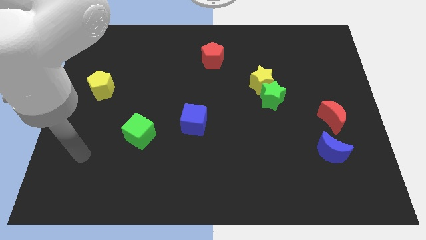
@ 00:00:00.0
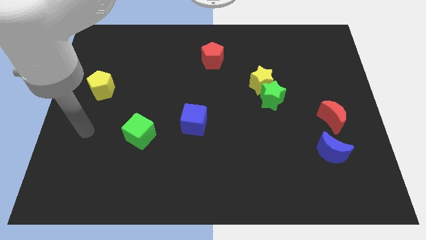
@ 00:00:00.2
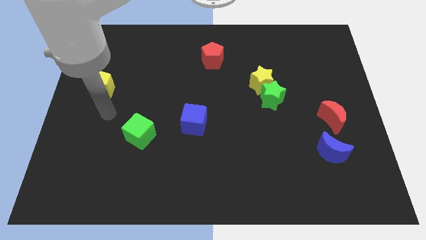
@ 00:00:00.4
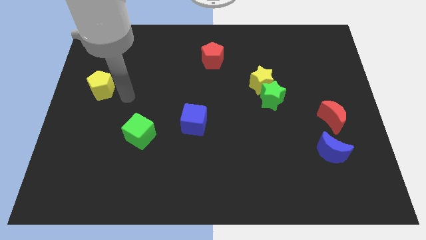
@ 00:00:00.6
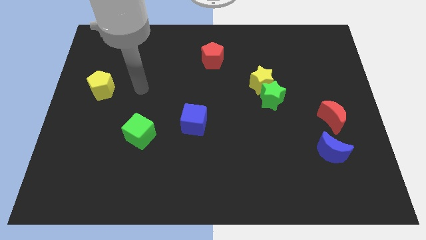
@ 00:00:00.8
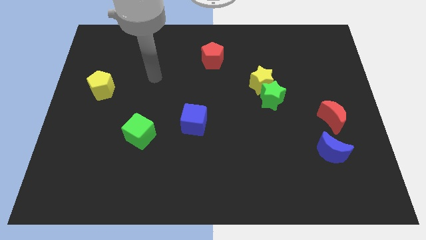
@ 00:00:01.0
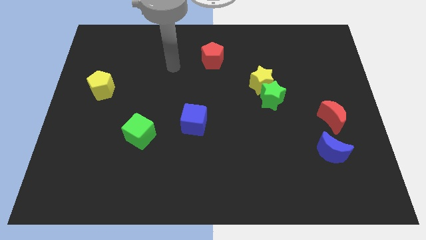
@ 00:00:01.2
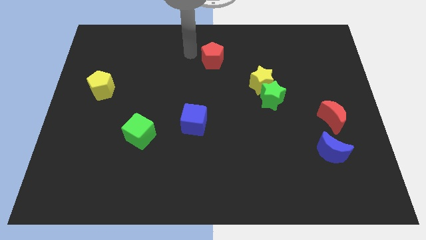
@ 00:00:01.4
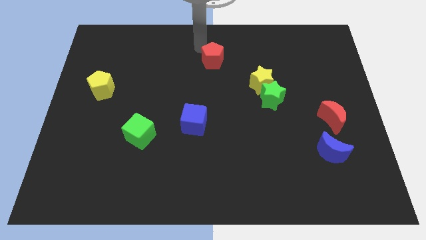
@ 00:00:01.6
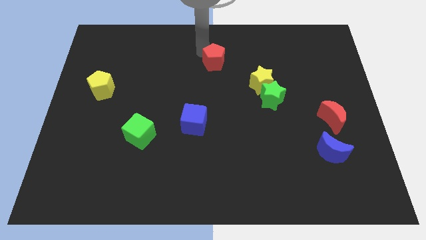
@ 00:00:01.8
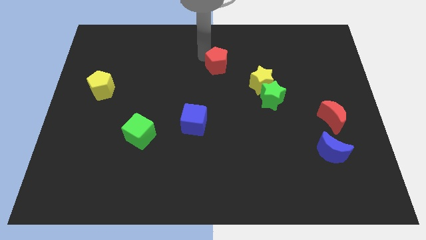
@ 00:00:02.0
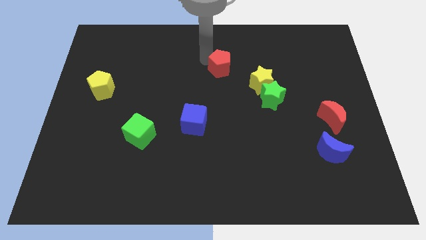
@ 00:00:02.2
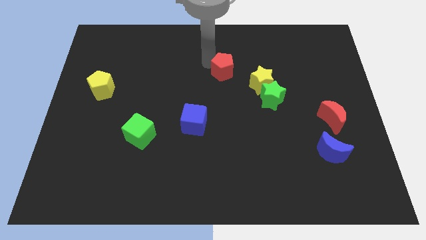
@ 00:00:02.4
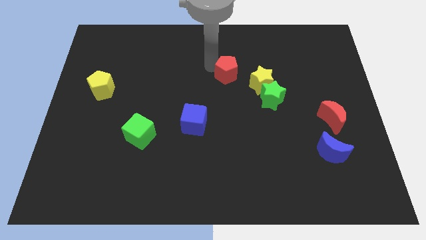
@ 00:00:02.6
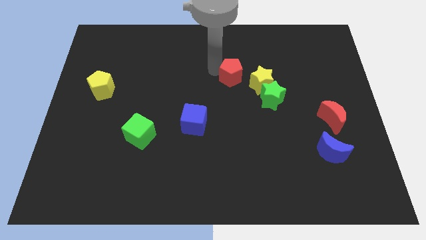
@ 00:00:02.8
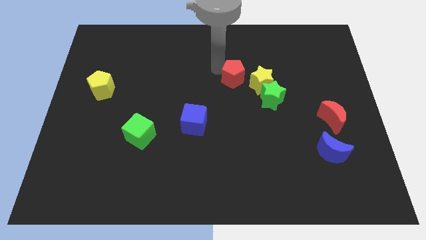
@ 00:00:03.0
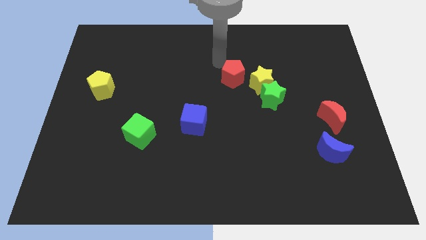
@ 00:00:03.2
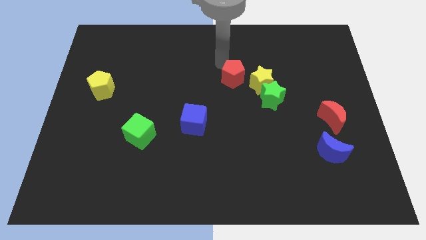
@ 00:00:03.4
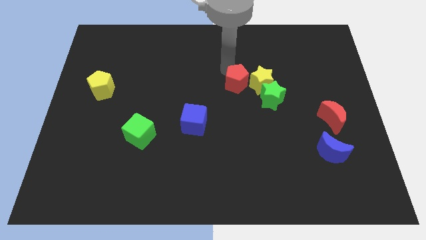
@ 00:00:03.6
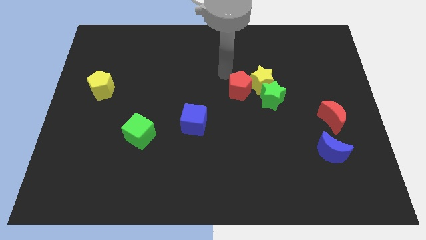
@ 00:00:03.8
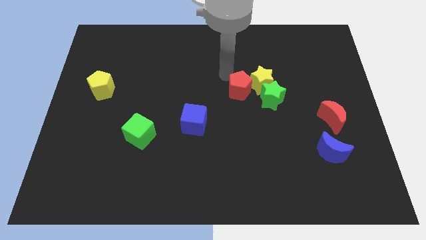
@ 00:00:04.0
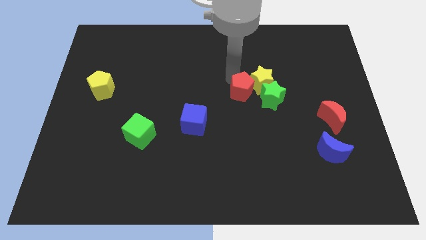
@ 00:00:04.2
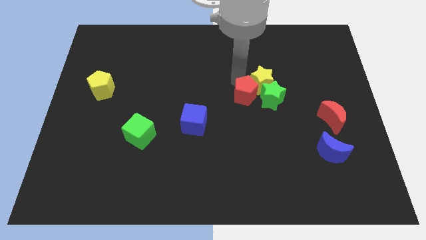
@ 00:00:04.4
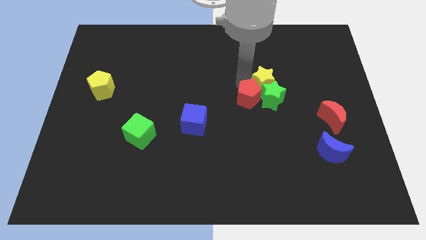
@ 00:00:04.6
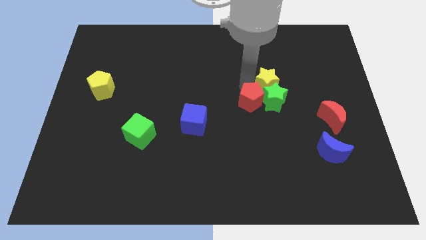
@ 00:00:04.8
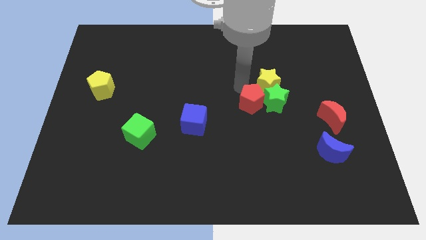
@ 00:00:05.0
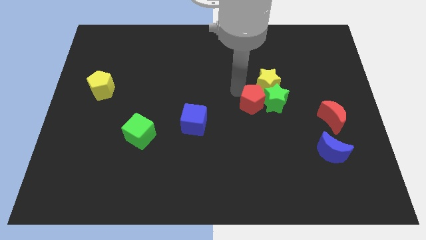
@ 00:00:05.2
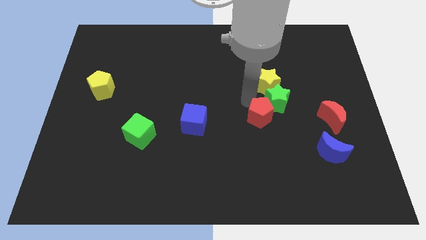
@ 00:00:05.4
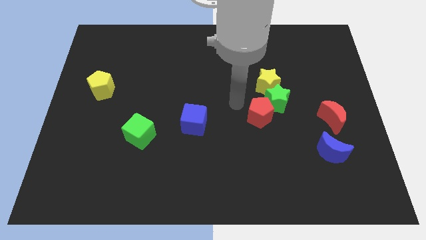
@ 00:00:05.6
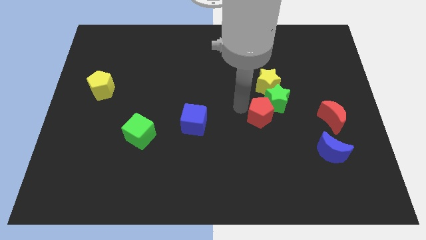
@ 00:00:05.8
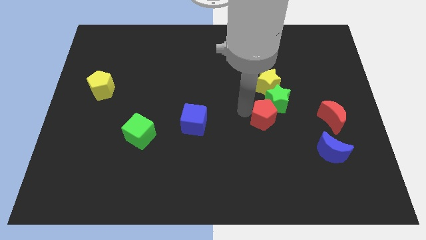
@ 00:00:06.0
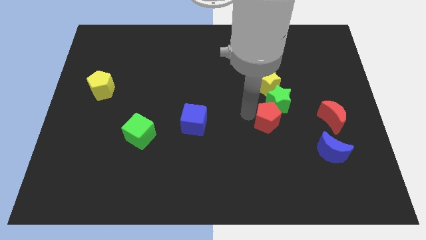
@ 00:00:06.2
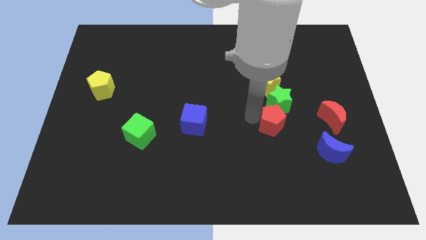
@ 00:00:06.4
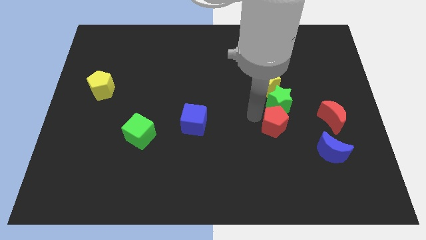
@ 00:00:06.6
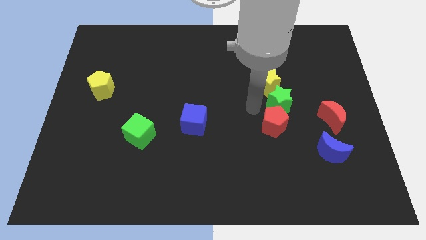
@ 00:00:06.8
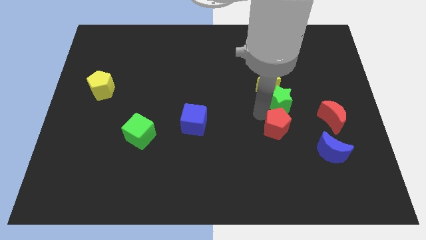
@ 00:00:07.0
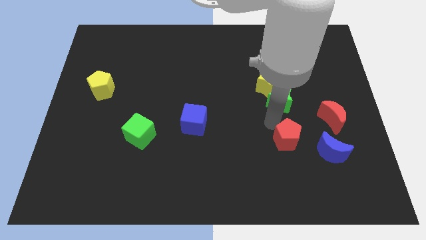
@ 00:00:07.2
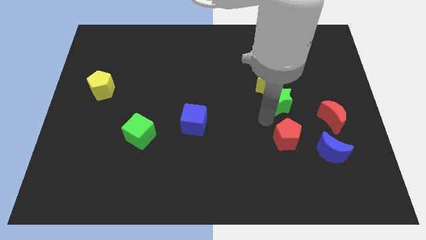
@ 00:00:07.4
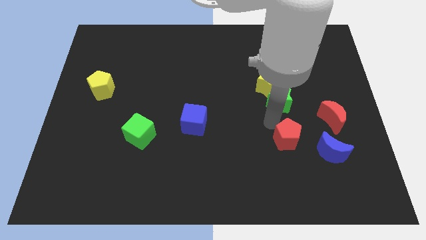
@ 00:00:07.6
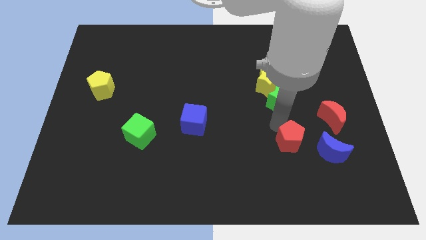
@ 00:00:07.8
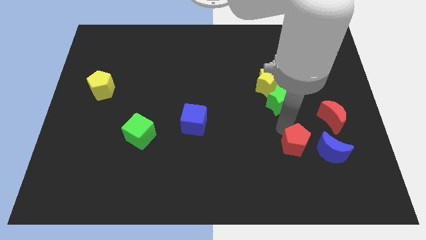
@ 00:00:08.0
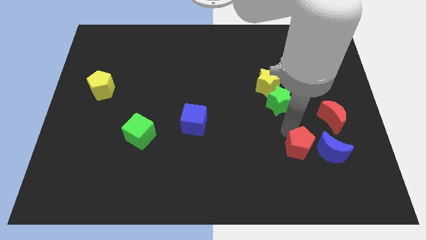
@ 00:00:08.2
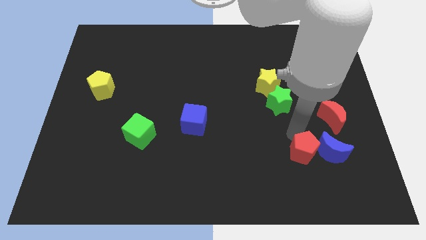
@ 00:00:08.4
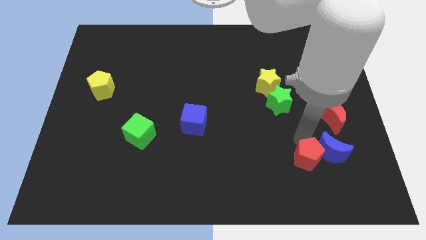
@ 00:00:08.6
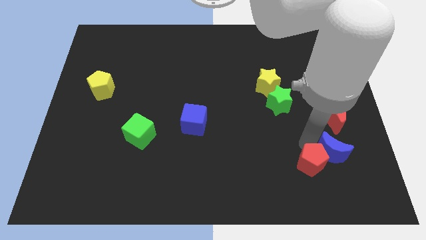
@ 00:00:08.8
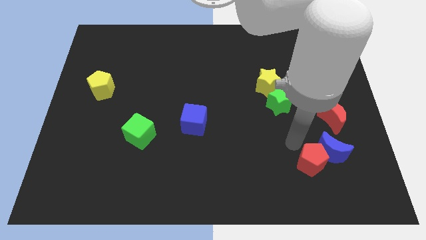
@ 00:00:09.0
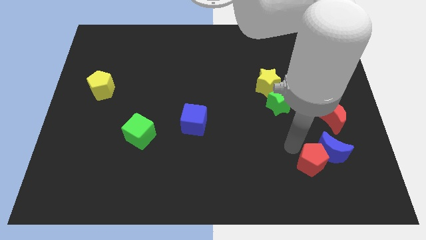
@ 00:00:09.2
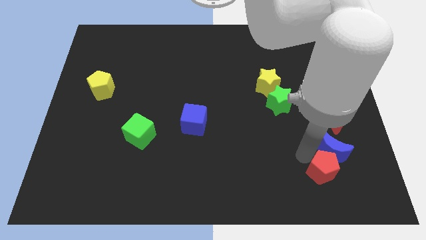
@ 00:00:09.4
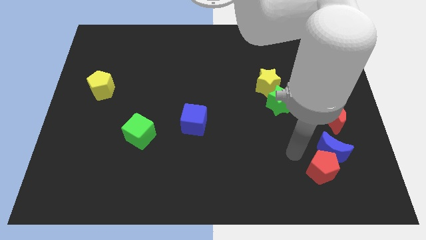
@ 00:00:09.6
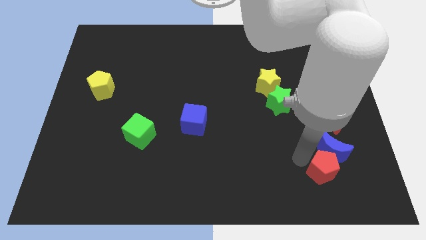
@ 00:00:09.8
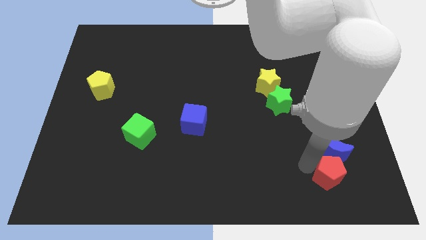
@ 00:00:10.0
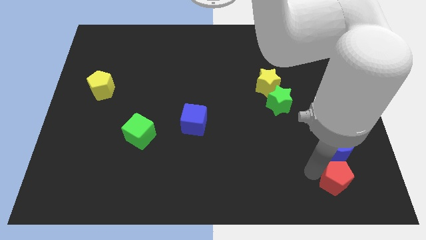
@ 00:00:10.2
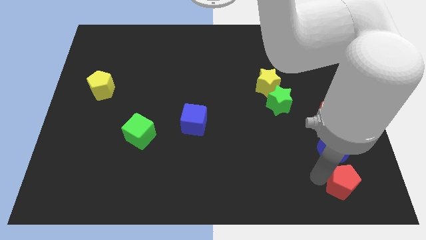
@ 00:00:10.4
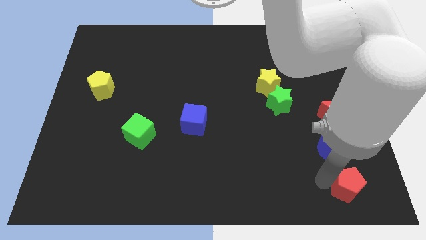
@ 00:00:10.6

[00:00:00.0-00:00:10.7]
push the red pentagon to the bottom right

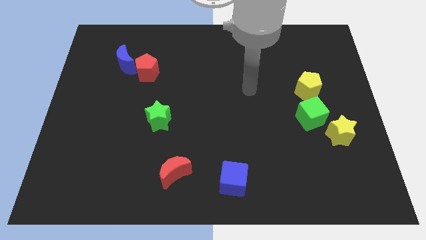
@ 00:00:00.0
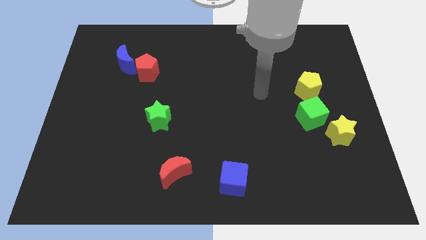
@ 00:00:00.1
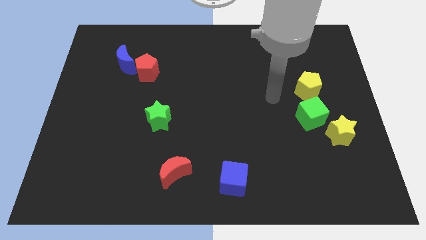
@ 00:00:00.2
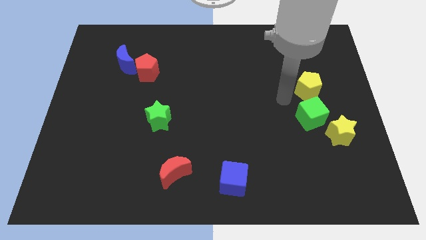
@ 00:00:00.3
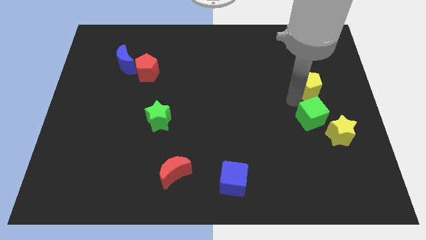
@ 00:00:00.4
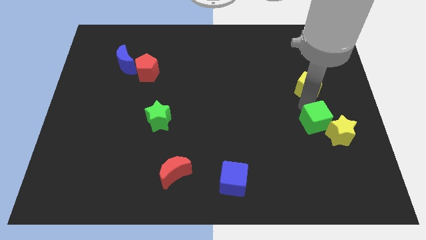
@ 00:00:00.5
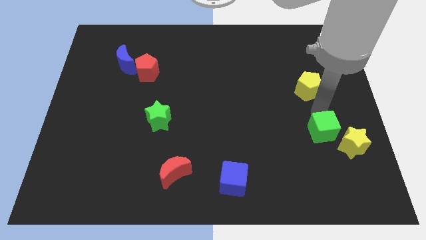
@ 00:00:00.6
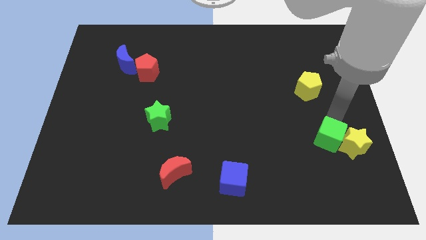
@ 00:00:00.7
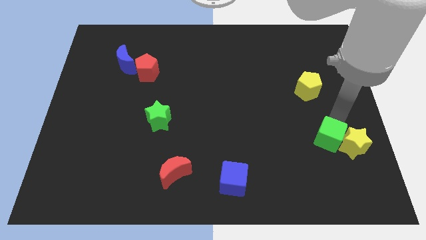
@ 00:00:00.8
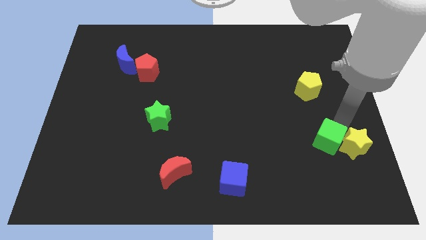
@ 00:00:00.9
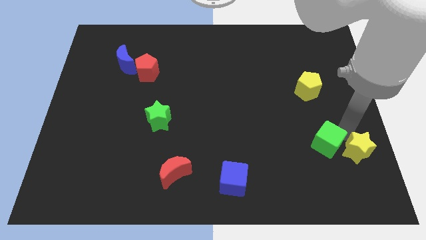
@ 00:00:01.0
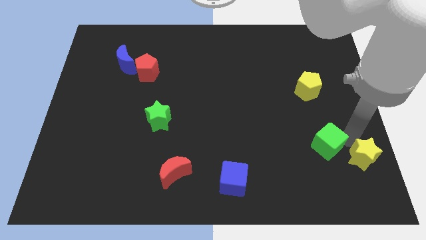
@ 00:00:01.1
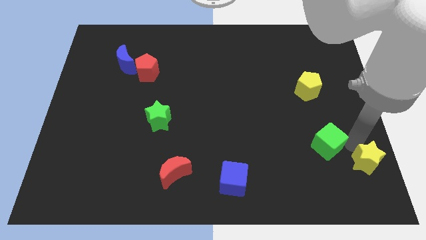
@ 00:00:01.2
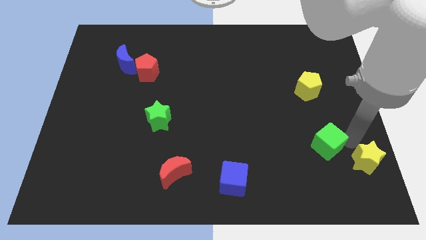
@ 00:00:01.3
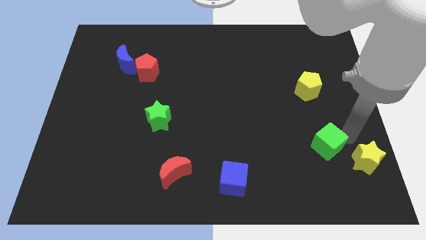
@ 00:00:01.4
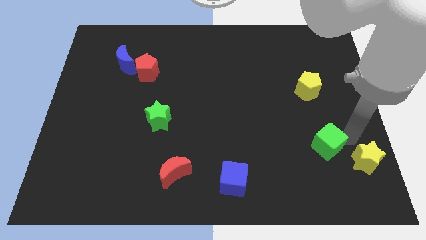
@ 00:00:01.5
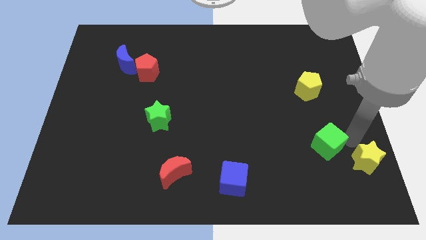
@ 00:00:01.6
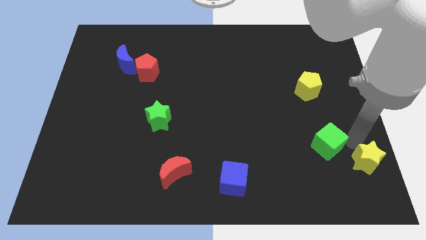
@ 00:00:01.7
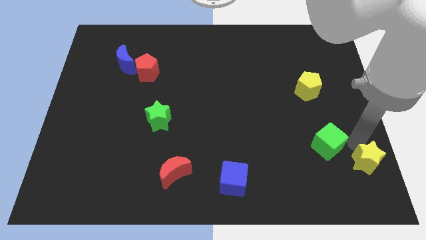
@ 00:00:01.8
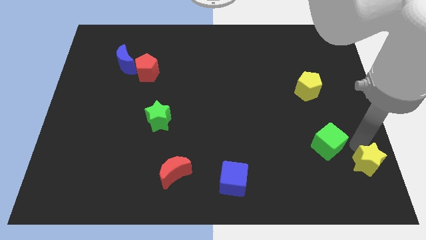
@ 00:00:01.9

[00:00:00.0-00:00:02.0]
move the yellow star to the lower right corner

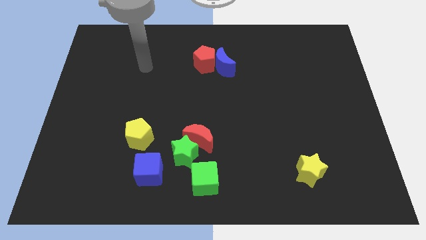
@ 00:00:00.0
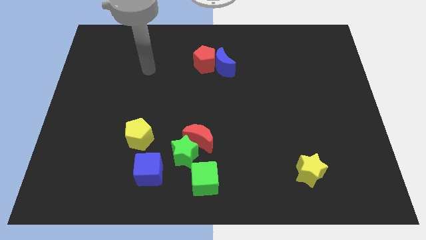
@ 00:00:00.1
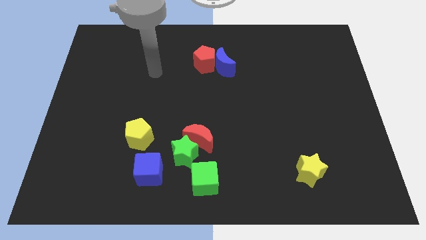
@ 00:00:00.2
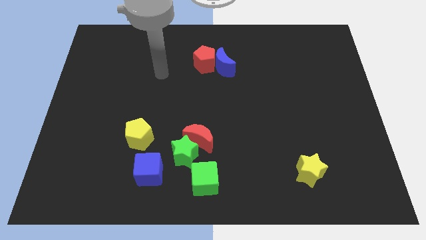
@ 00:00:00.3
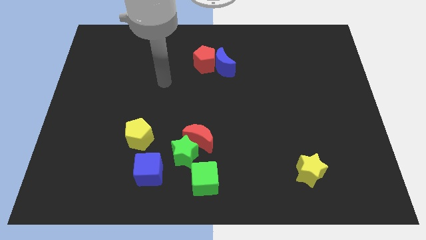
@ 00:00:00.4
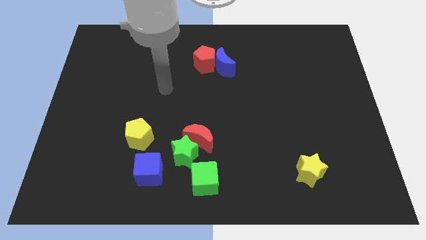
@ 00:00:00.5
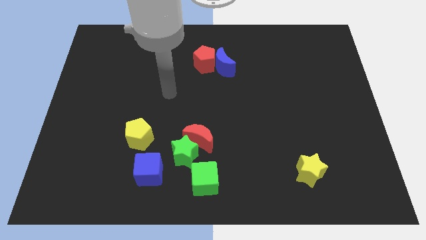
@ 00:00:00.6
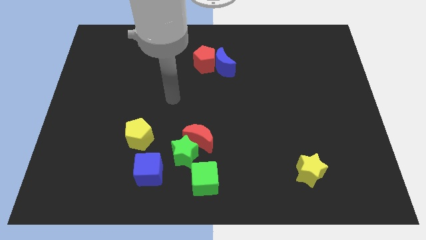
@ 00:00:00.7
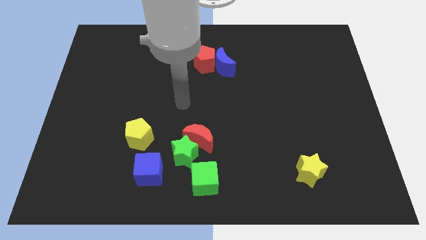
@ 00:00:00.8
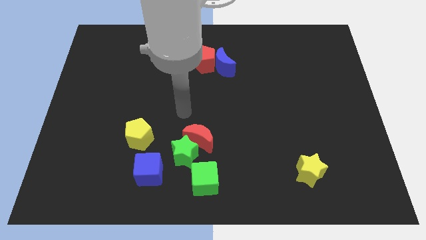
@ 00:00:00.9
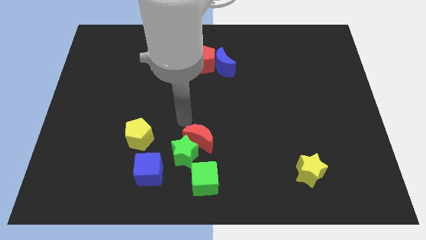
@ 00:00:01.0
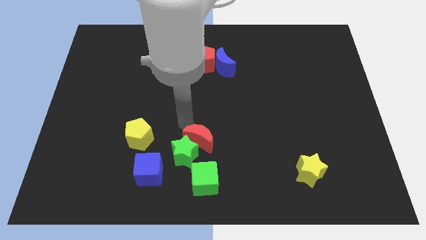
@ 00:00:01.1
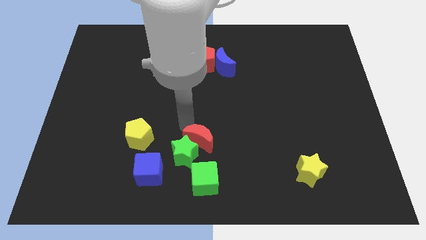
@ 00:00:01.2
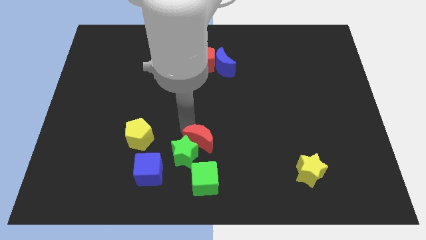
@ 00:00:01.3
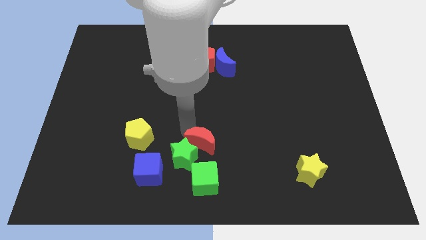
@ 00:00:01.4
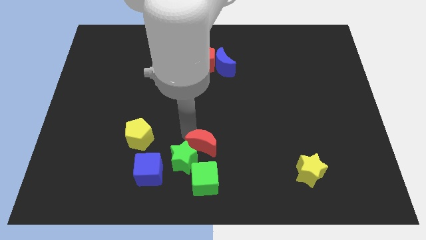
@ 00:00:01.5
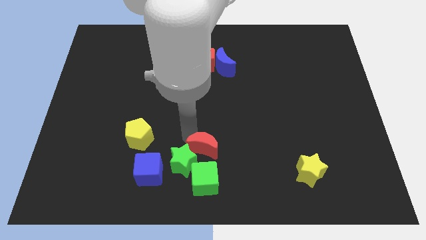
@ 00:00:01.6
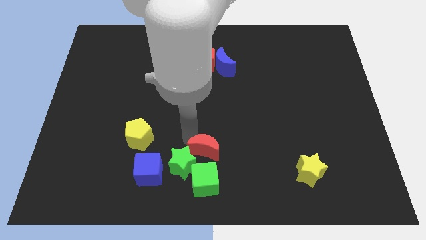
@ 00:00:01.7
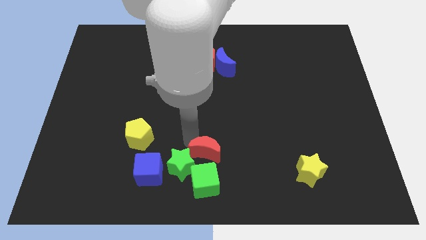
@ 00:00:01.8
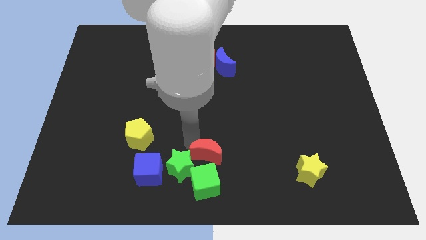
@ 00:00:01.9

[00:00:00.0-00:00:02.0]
put the red moon to the bottom side
